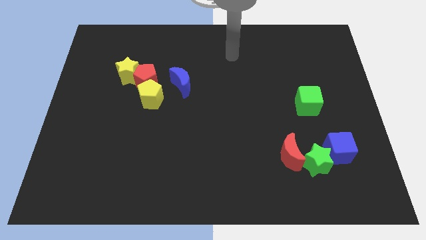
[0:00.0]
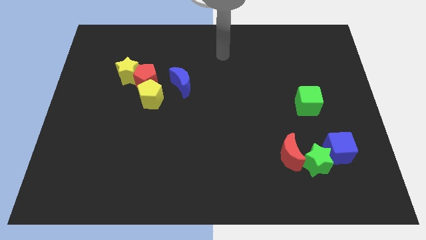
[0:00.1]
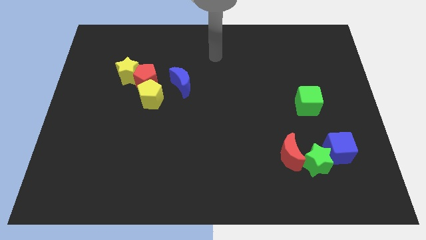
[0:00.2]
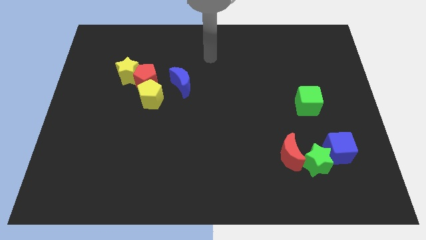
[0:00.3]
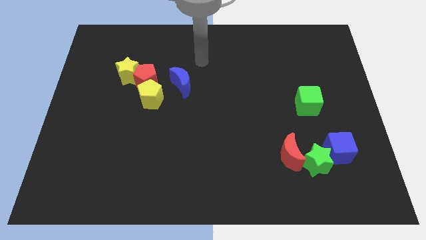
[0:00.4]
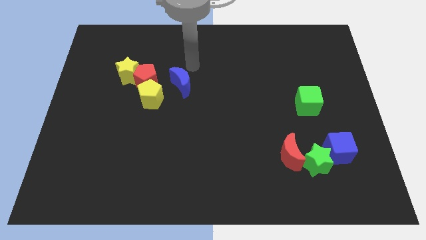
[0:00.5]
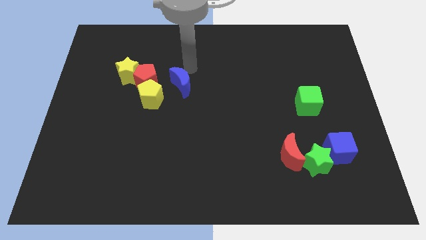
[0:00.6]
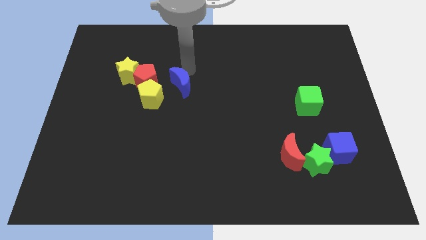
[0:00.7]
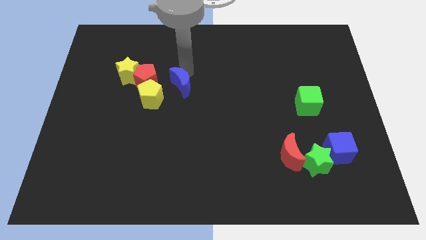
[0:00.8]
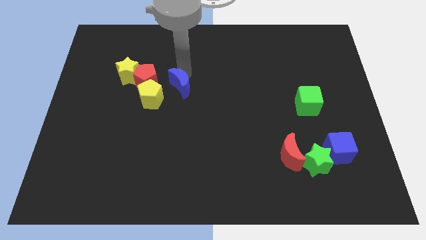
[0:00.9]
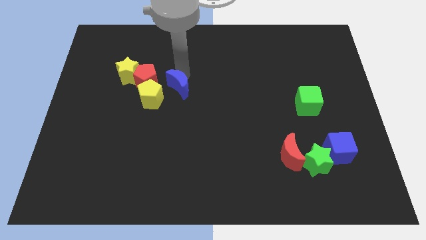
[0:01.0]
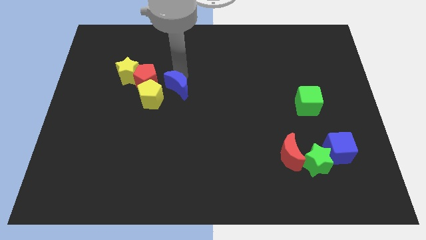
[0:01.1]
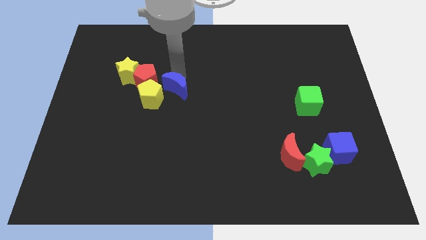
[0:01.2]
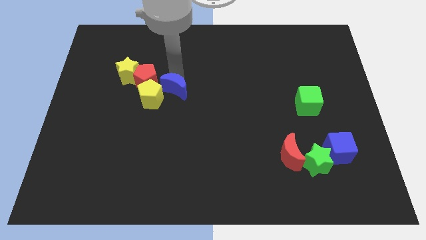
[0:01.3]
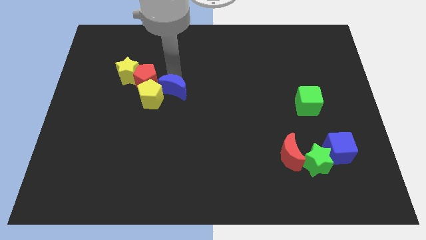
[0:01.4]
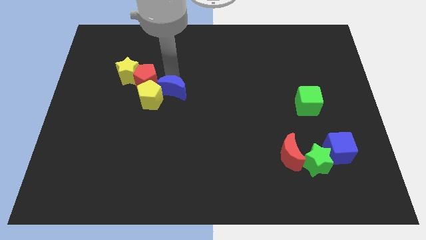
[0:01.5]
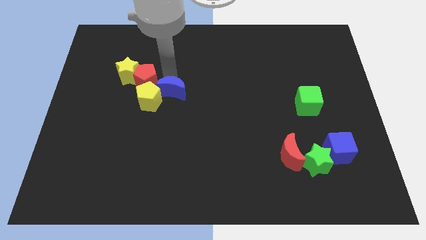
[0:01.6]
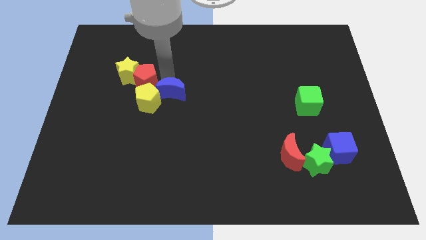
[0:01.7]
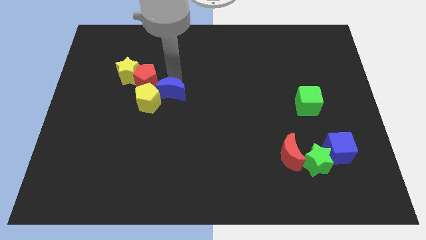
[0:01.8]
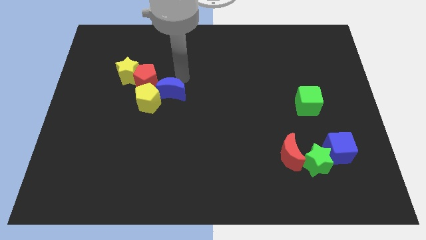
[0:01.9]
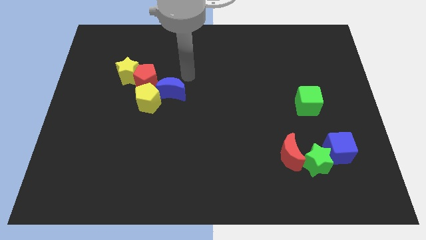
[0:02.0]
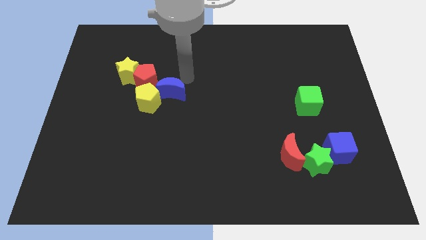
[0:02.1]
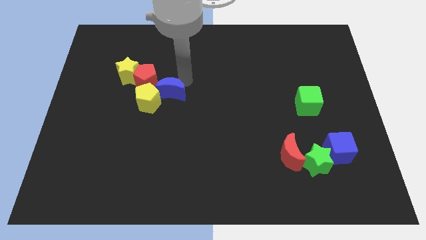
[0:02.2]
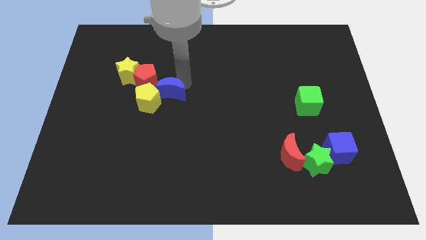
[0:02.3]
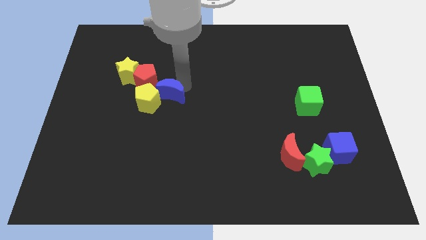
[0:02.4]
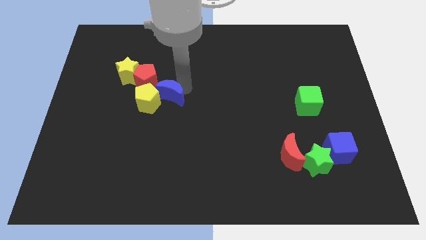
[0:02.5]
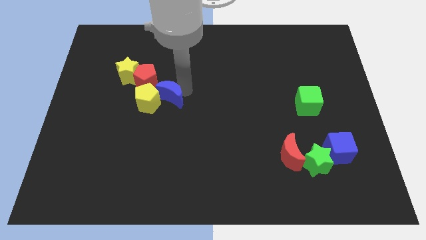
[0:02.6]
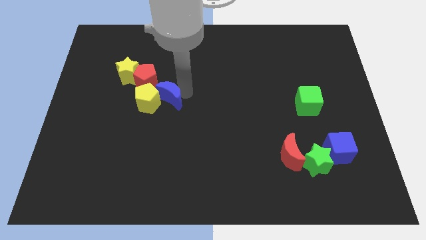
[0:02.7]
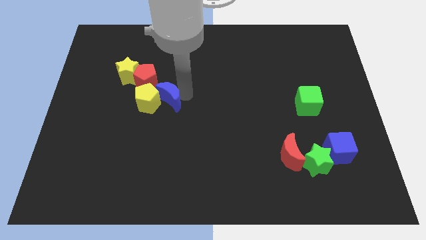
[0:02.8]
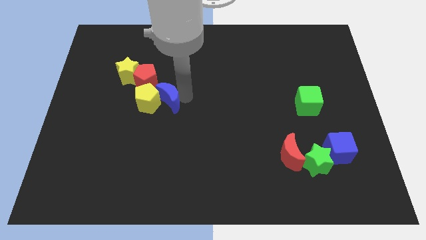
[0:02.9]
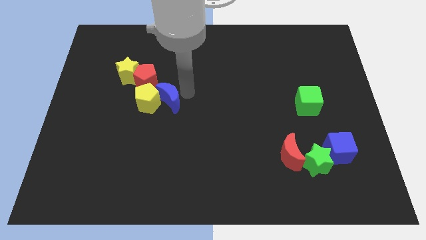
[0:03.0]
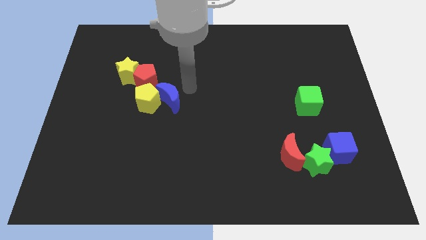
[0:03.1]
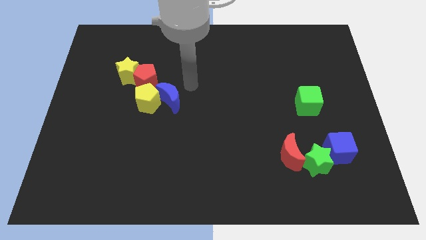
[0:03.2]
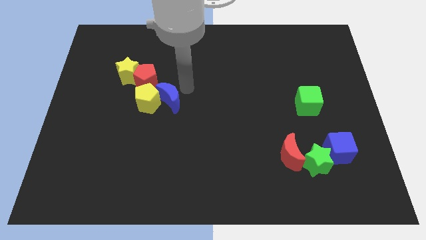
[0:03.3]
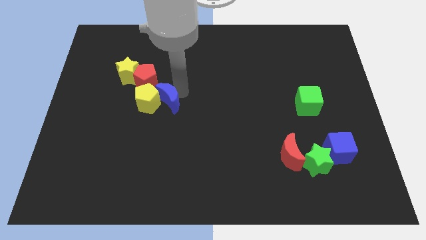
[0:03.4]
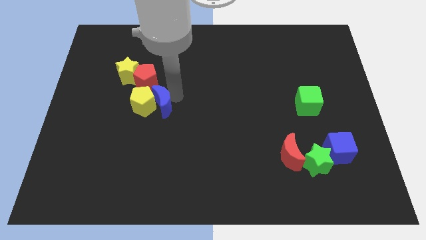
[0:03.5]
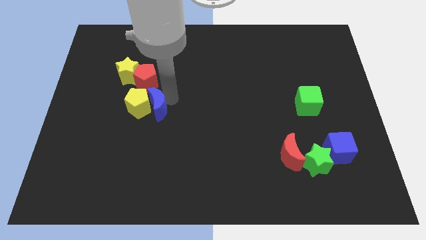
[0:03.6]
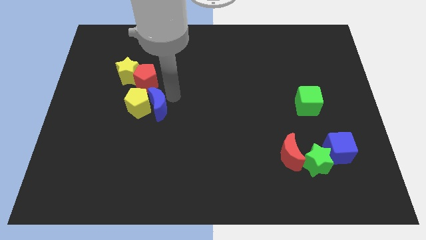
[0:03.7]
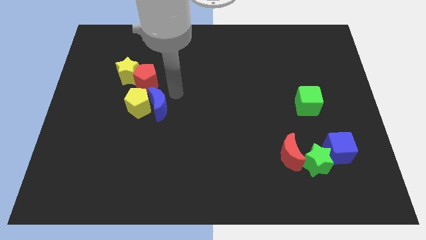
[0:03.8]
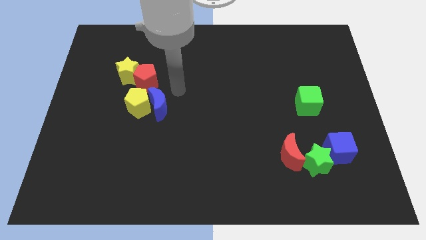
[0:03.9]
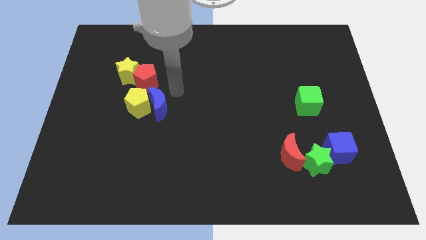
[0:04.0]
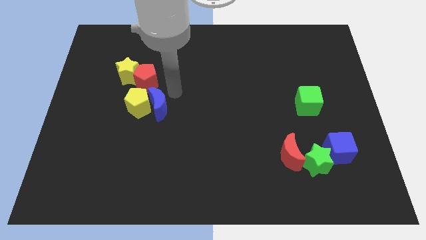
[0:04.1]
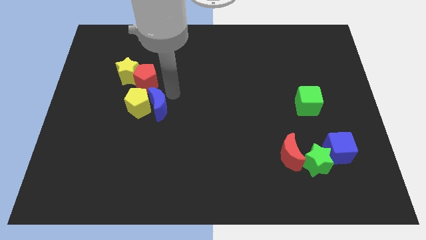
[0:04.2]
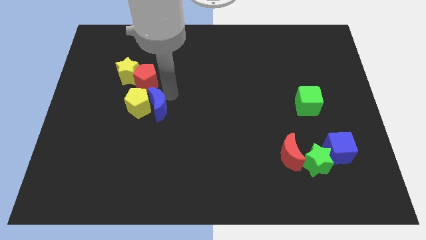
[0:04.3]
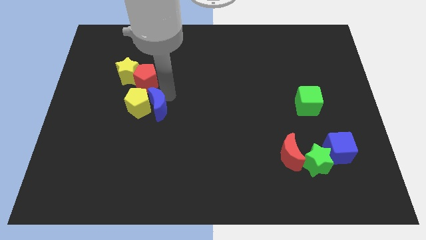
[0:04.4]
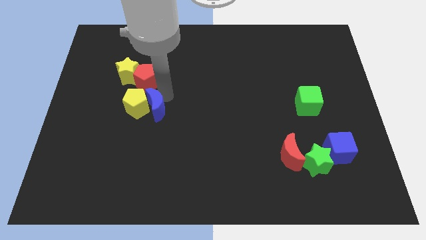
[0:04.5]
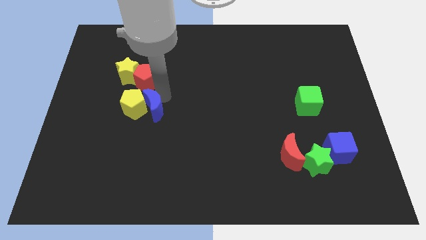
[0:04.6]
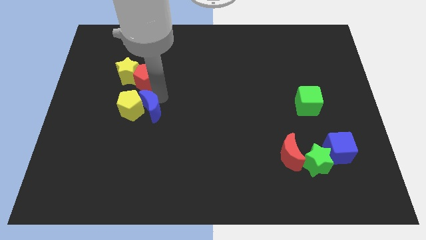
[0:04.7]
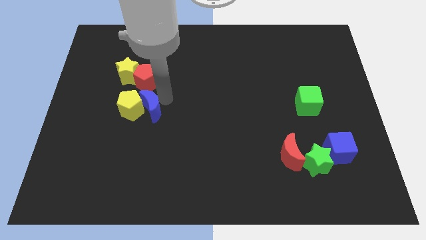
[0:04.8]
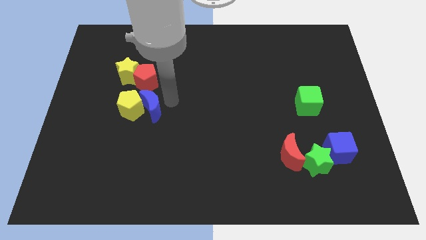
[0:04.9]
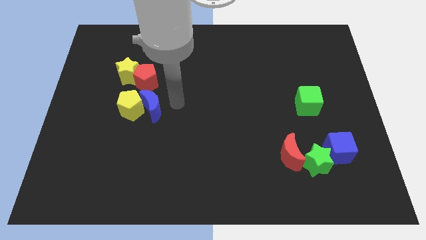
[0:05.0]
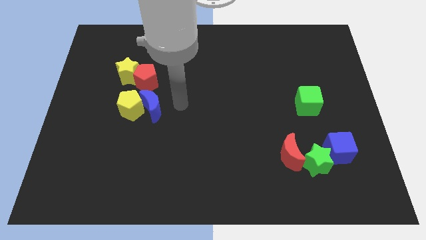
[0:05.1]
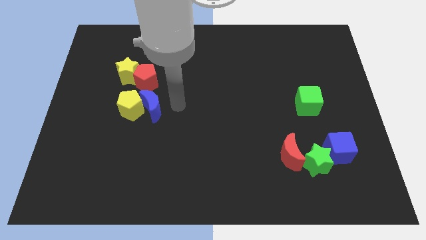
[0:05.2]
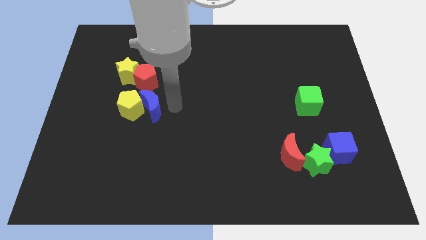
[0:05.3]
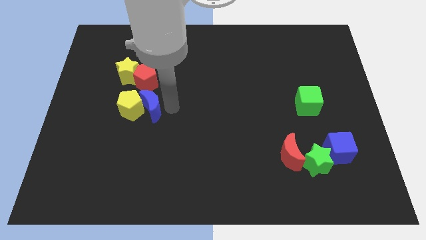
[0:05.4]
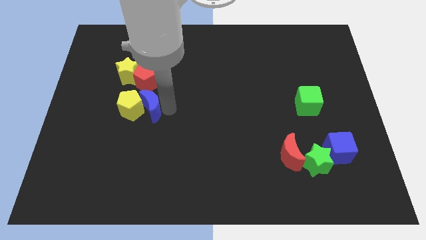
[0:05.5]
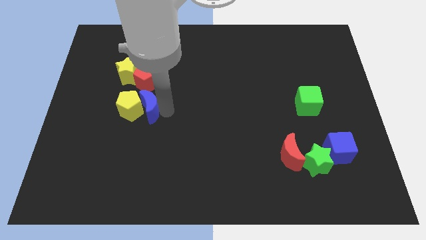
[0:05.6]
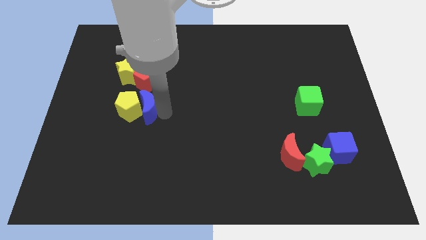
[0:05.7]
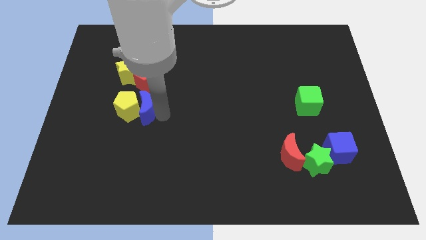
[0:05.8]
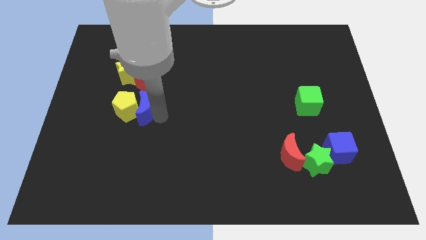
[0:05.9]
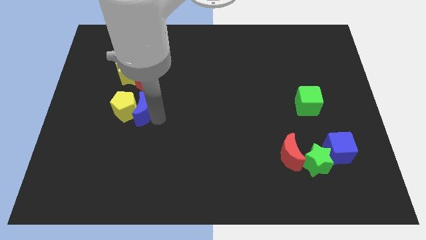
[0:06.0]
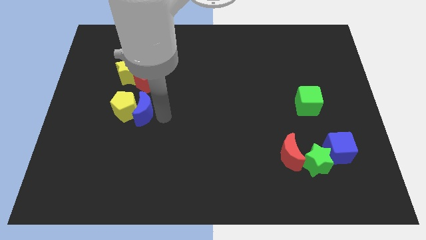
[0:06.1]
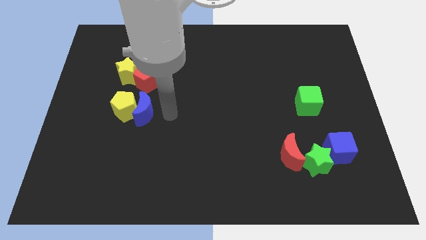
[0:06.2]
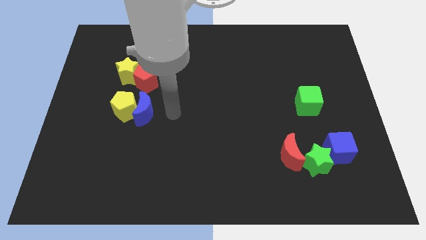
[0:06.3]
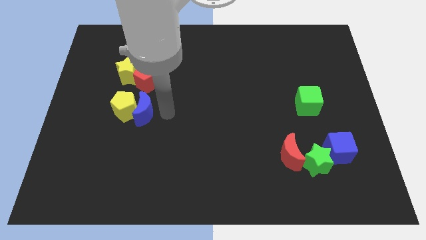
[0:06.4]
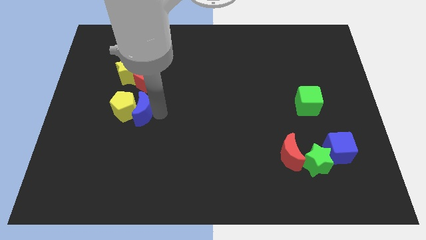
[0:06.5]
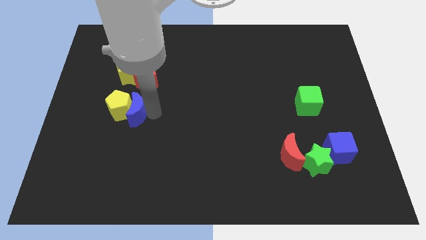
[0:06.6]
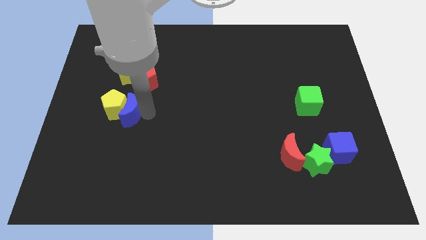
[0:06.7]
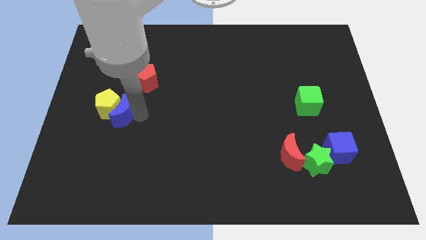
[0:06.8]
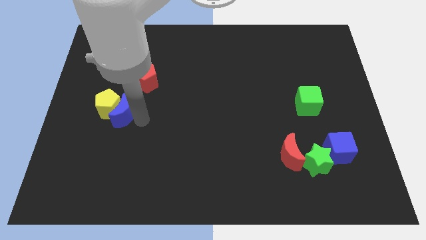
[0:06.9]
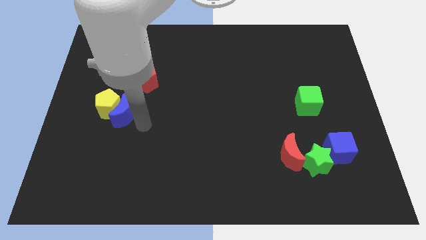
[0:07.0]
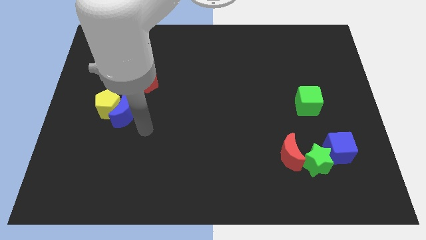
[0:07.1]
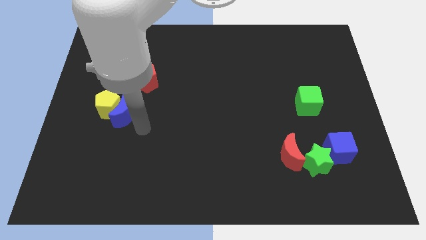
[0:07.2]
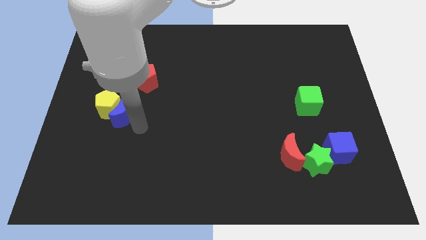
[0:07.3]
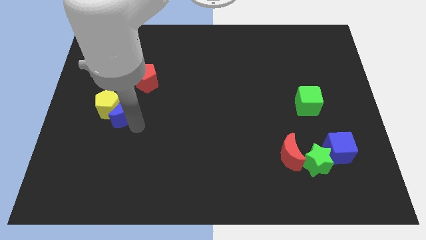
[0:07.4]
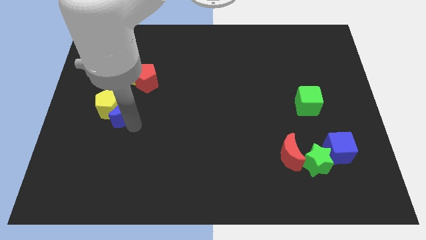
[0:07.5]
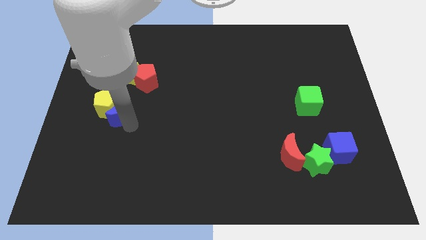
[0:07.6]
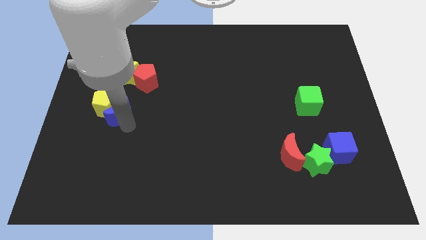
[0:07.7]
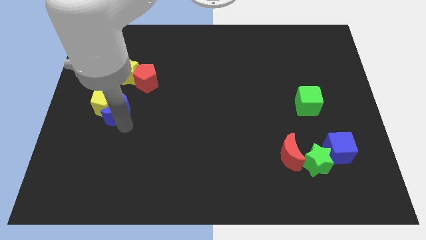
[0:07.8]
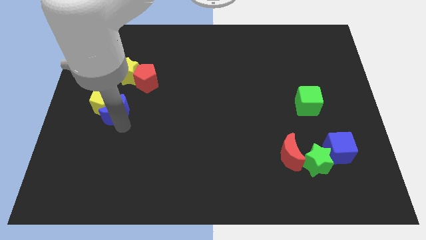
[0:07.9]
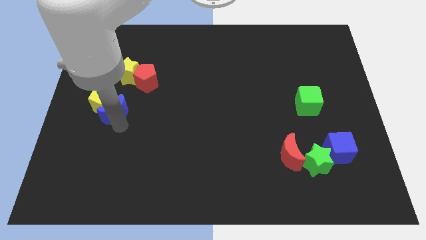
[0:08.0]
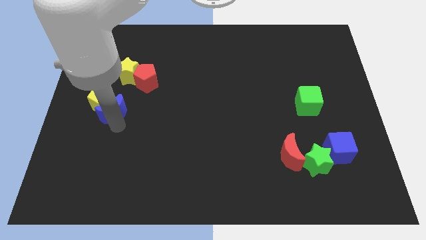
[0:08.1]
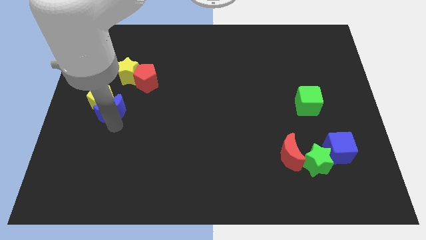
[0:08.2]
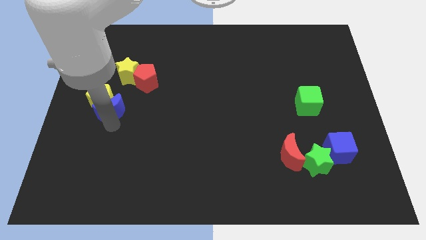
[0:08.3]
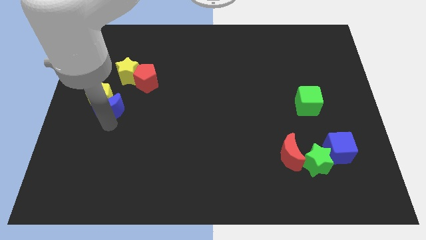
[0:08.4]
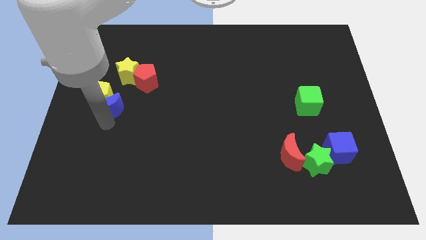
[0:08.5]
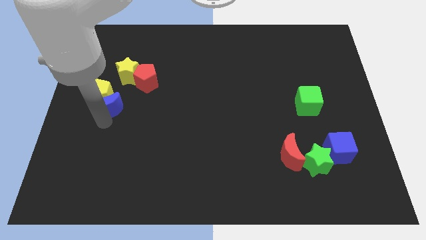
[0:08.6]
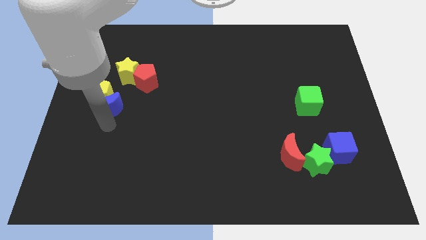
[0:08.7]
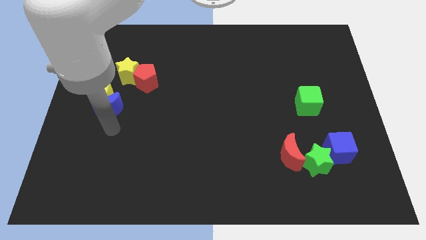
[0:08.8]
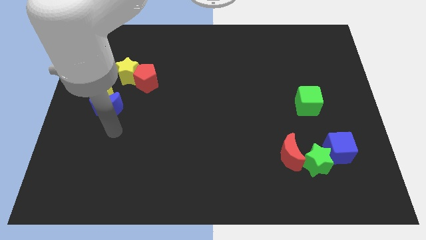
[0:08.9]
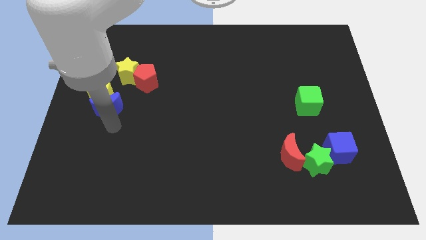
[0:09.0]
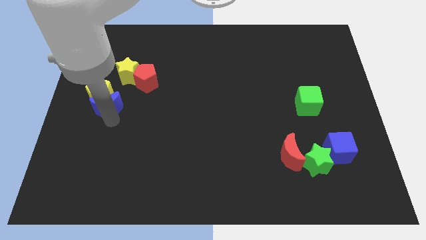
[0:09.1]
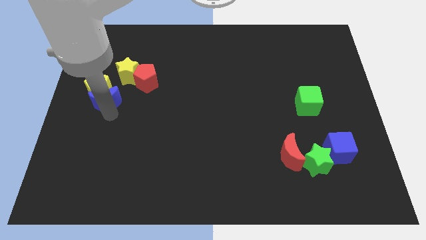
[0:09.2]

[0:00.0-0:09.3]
put the blue moon to the bottom left side of the yellow star
